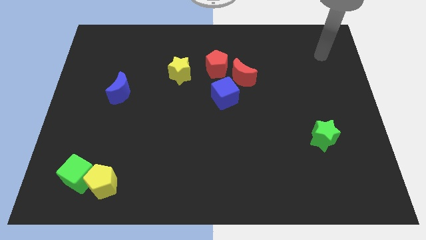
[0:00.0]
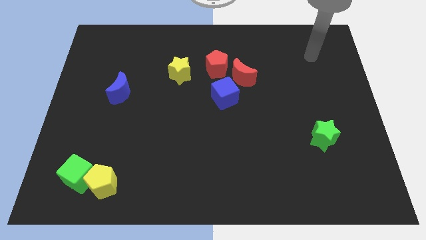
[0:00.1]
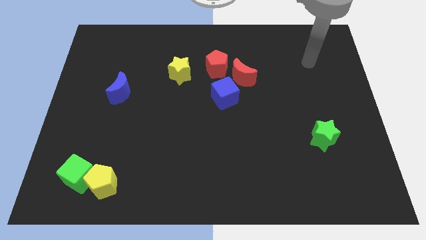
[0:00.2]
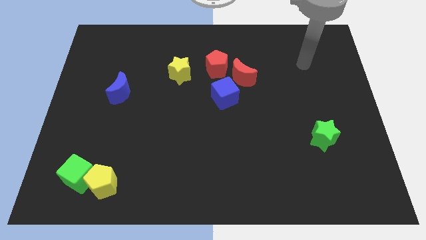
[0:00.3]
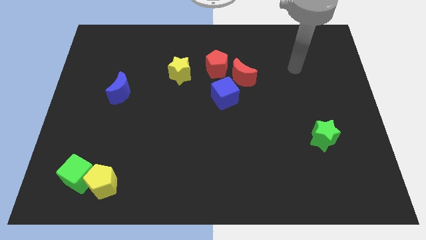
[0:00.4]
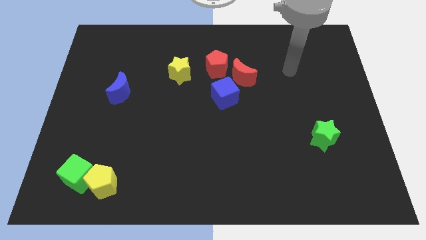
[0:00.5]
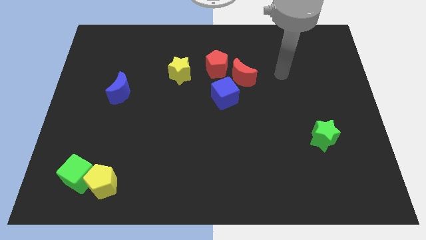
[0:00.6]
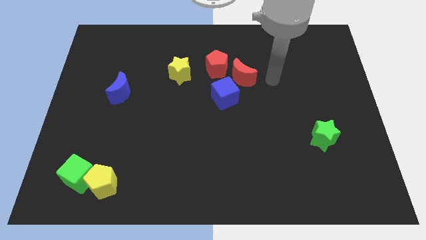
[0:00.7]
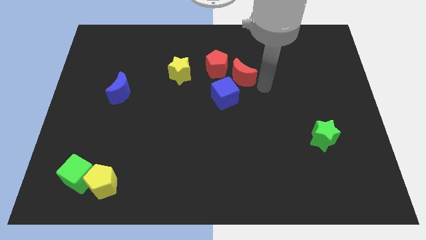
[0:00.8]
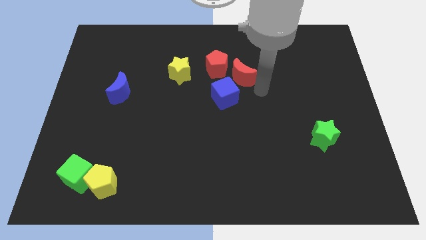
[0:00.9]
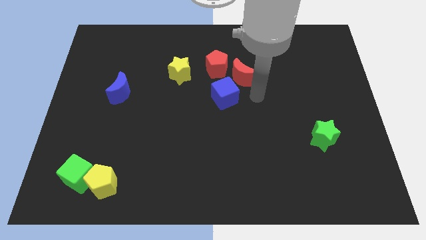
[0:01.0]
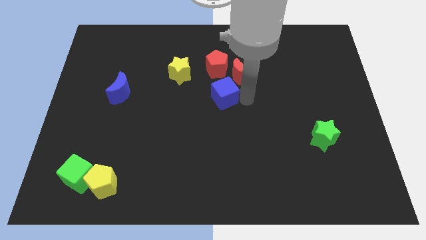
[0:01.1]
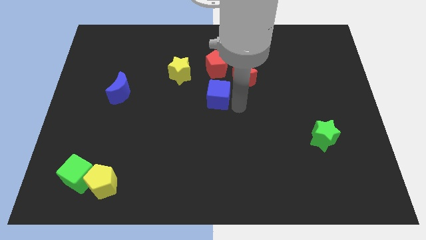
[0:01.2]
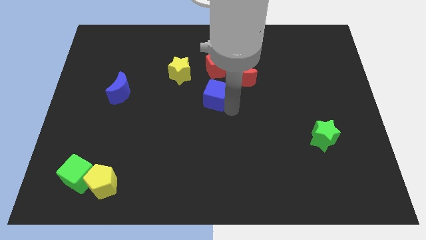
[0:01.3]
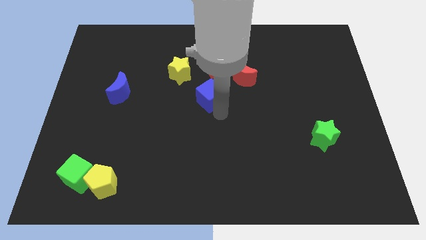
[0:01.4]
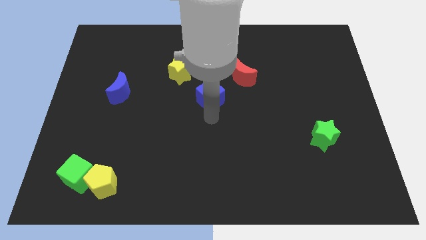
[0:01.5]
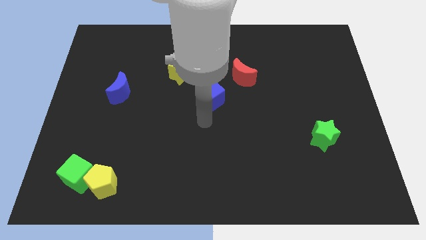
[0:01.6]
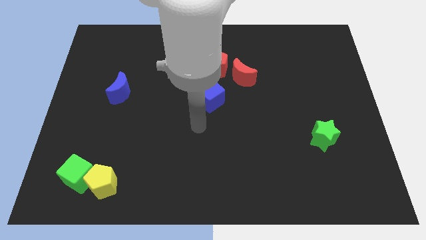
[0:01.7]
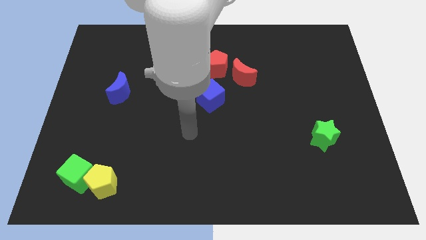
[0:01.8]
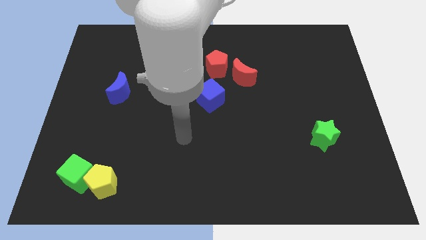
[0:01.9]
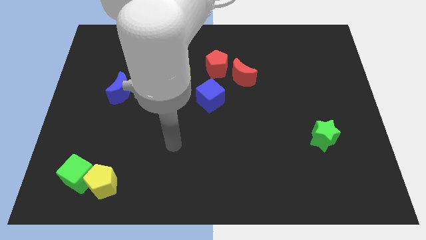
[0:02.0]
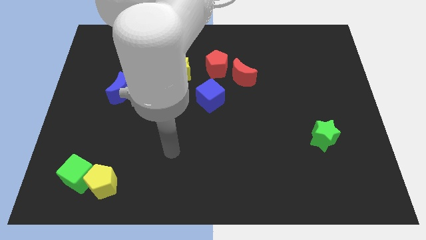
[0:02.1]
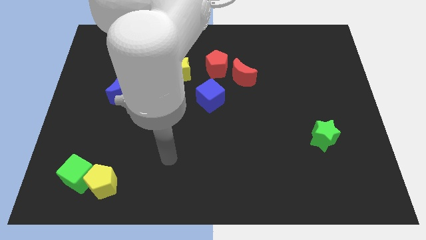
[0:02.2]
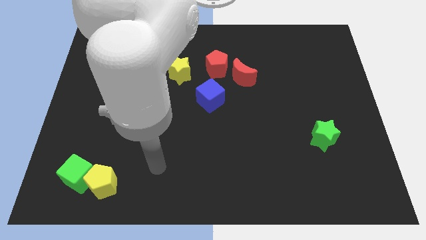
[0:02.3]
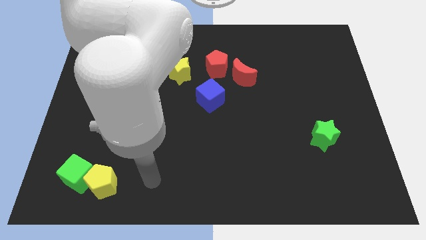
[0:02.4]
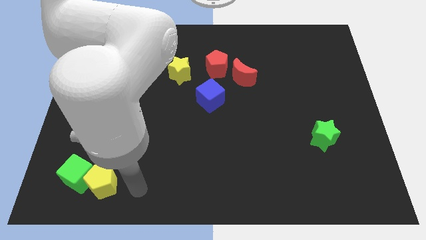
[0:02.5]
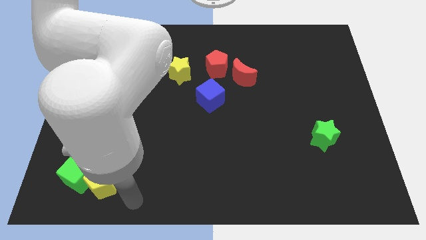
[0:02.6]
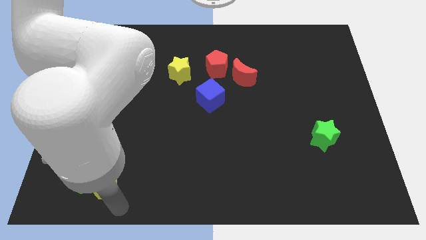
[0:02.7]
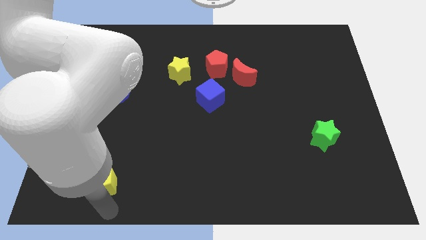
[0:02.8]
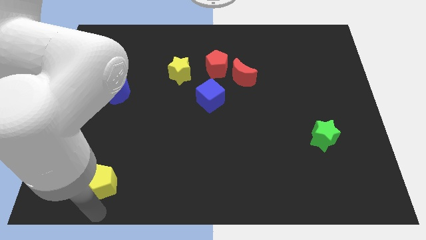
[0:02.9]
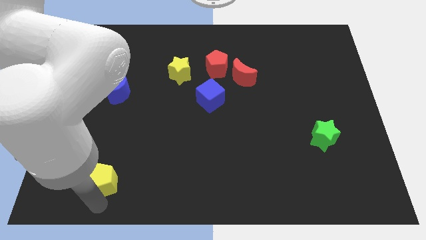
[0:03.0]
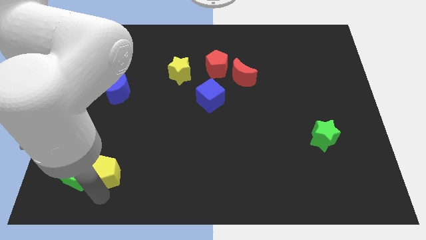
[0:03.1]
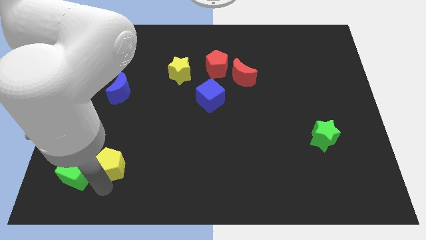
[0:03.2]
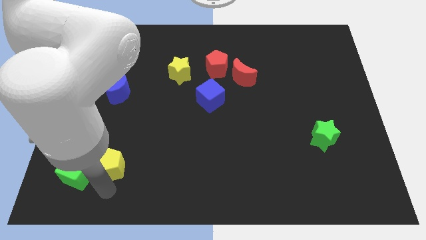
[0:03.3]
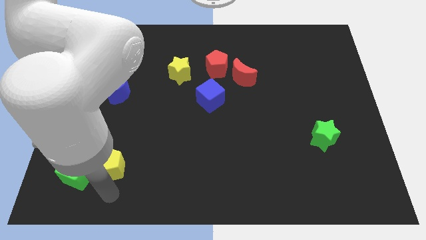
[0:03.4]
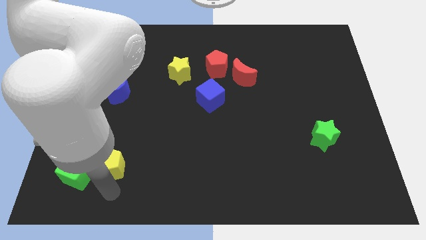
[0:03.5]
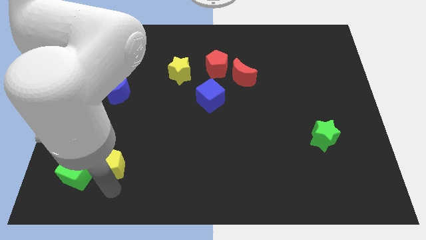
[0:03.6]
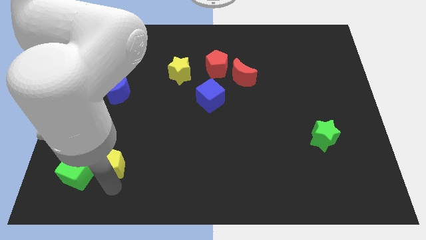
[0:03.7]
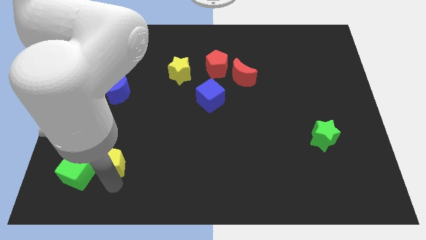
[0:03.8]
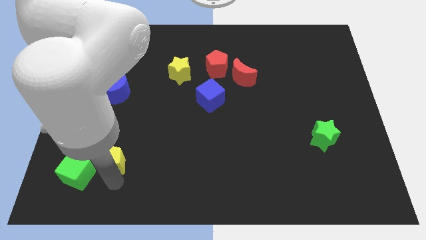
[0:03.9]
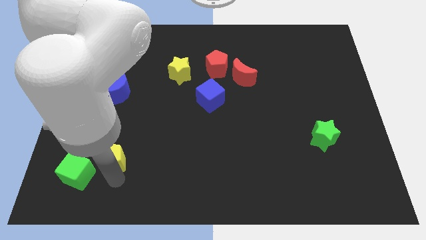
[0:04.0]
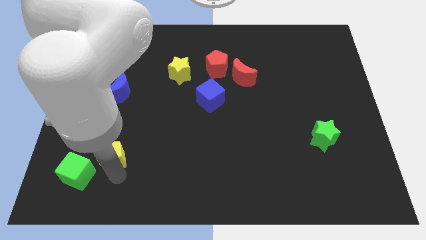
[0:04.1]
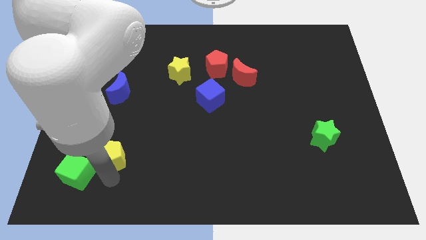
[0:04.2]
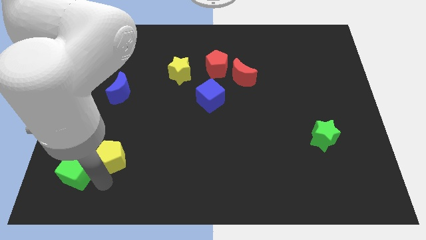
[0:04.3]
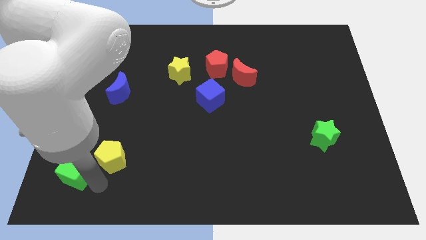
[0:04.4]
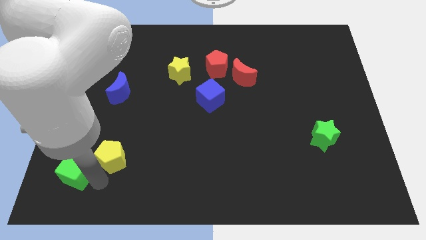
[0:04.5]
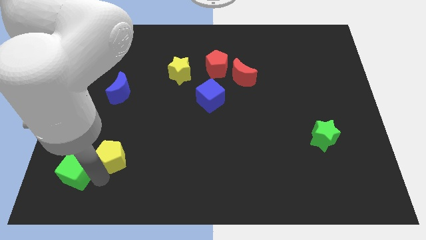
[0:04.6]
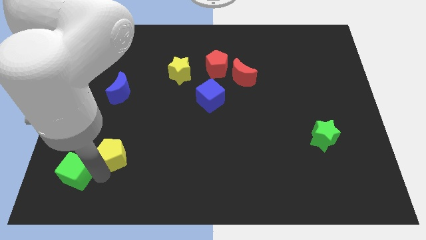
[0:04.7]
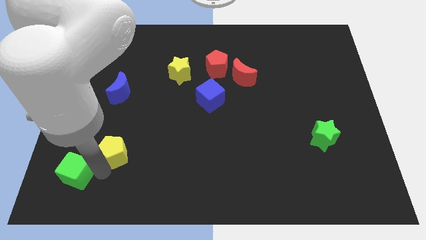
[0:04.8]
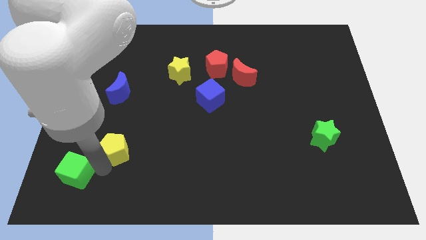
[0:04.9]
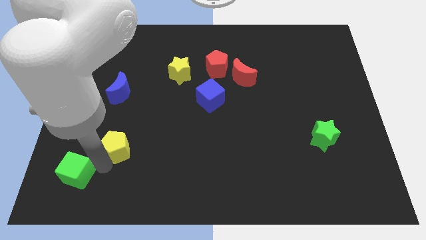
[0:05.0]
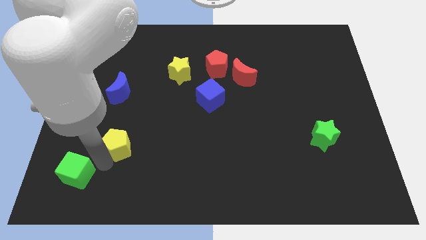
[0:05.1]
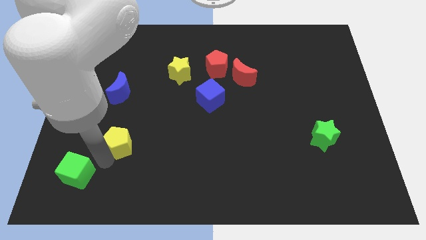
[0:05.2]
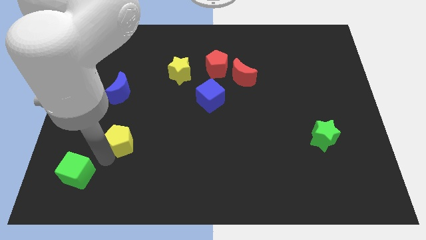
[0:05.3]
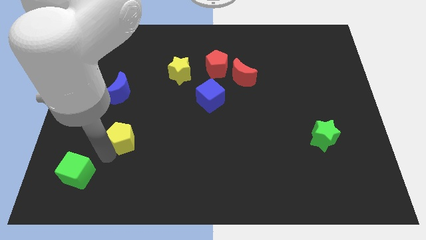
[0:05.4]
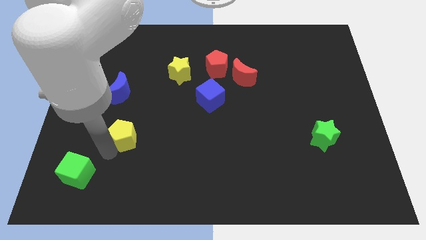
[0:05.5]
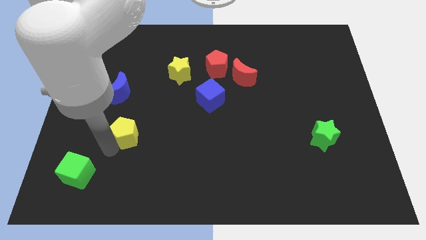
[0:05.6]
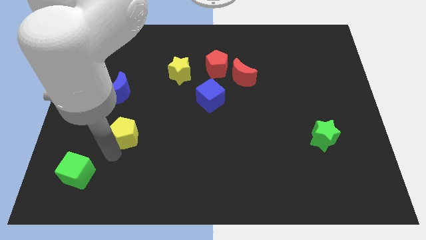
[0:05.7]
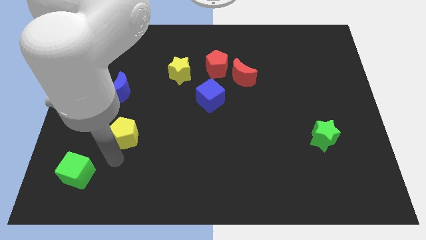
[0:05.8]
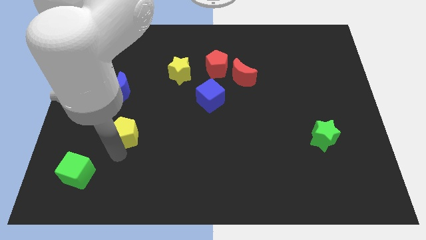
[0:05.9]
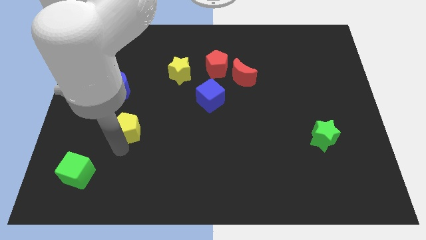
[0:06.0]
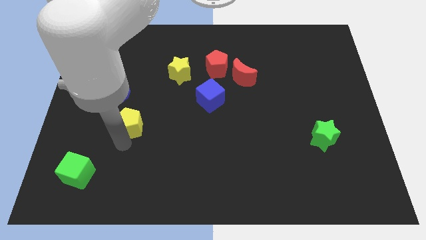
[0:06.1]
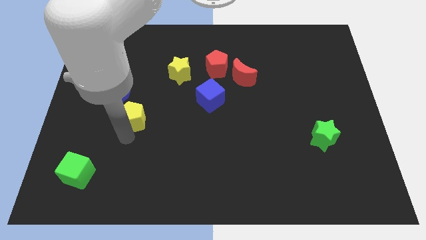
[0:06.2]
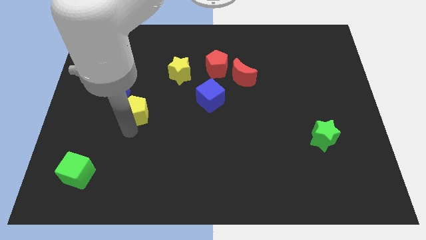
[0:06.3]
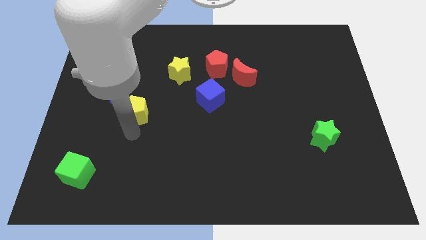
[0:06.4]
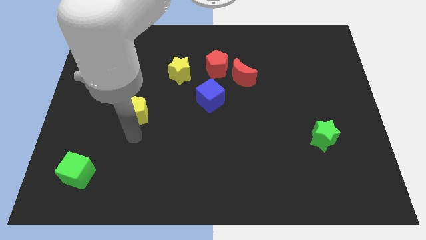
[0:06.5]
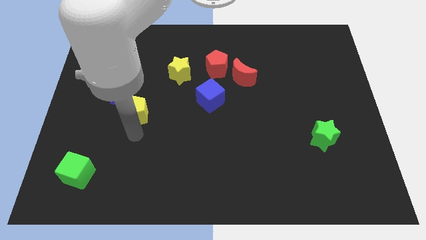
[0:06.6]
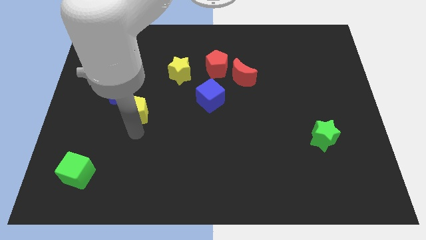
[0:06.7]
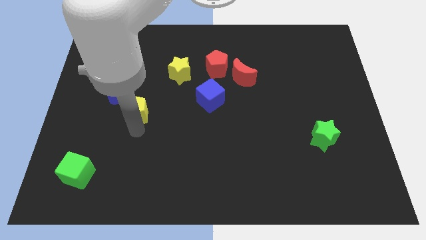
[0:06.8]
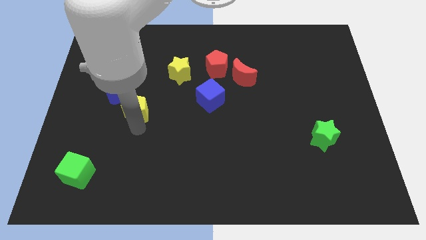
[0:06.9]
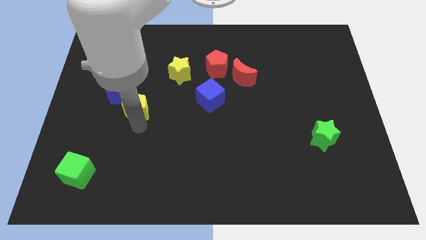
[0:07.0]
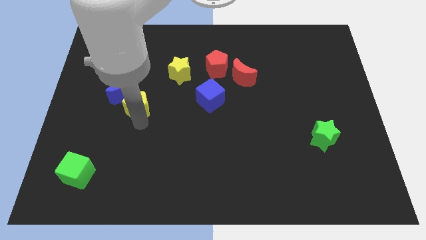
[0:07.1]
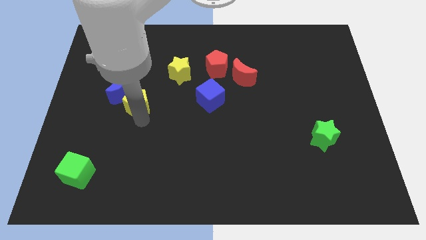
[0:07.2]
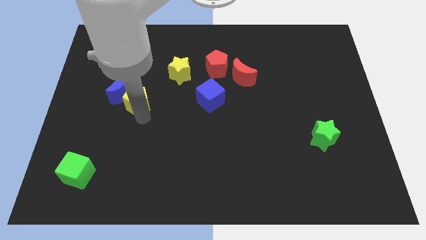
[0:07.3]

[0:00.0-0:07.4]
move the yellow pentagon upwards

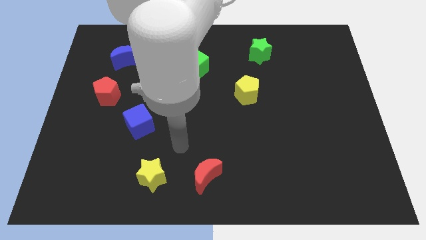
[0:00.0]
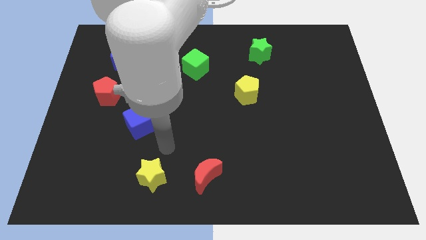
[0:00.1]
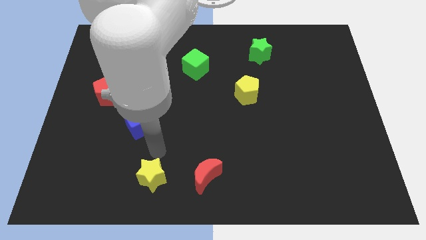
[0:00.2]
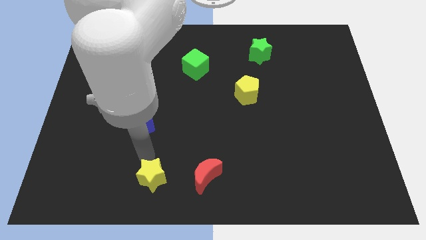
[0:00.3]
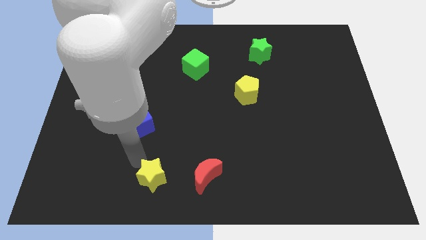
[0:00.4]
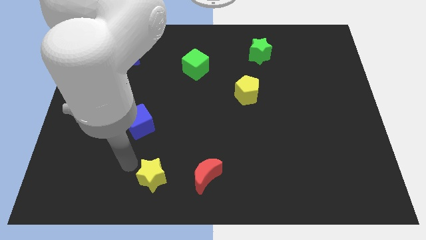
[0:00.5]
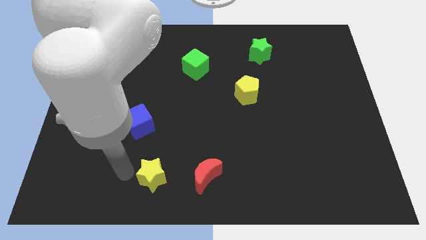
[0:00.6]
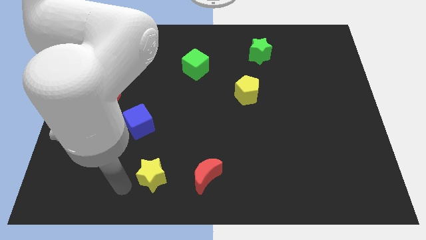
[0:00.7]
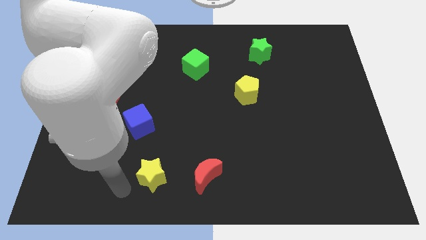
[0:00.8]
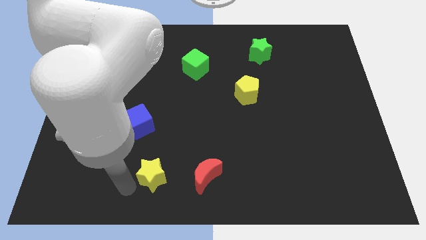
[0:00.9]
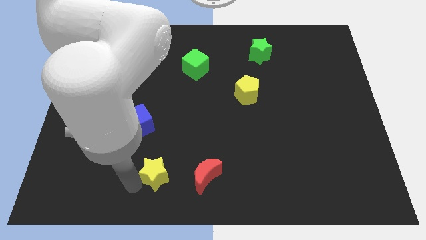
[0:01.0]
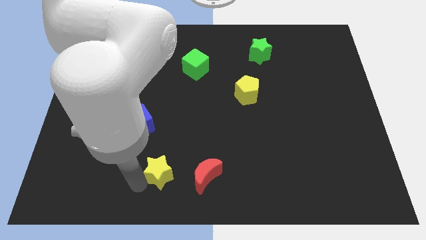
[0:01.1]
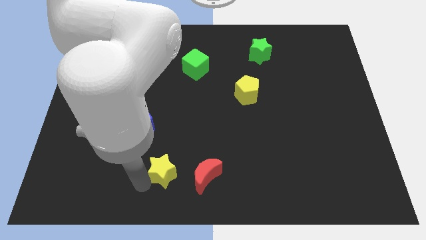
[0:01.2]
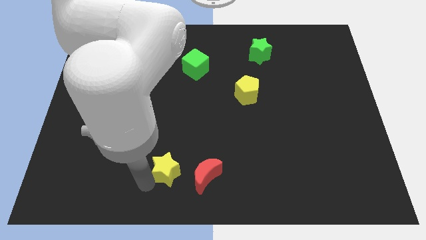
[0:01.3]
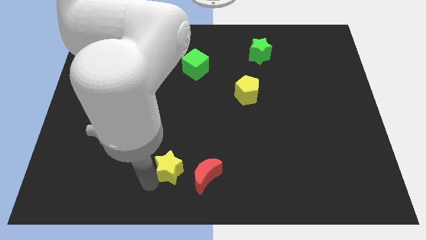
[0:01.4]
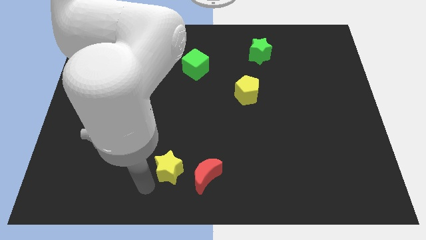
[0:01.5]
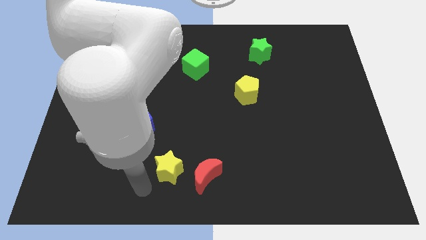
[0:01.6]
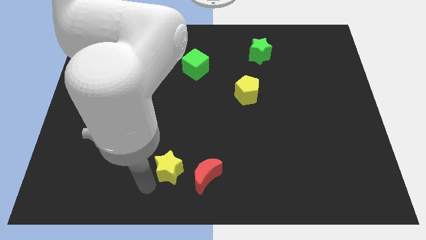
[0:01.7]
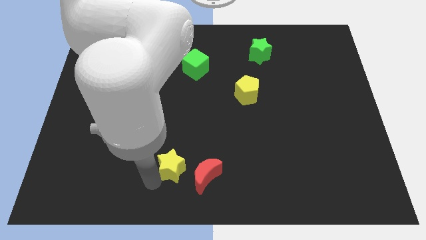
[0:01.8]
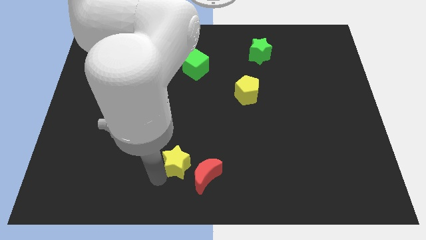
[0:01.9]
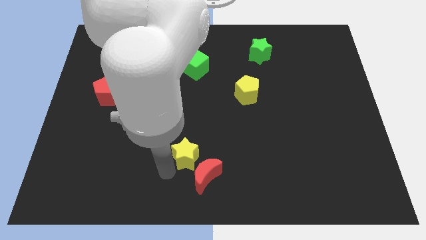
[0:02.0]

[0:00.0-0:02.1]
slide the yellow star a little upwards and right diagonally
